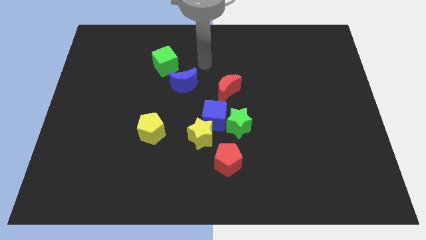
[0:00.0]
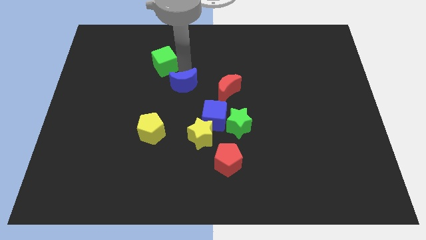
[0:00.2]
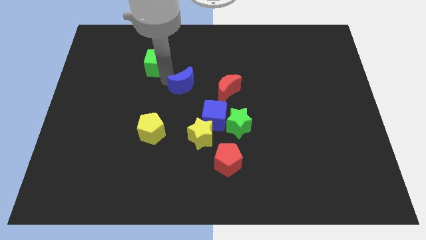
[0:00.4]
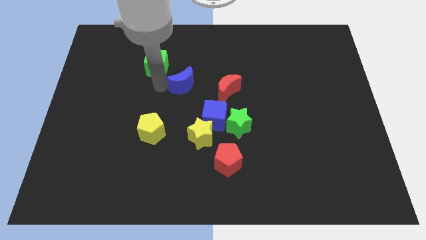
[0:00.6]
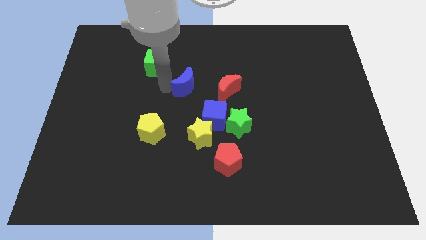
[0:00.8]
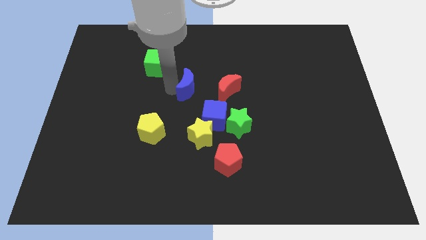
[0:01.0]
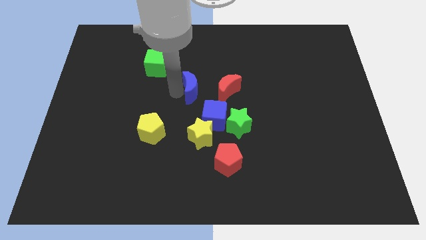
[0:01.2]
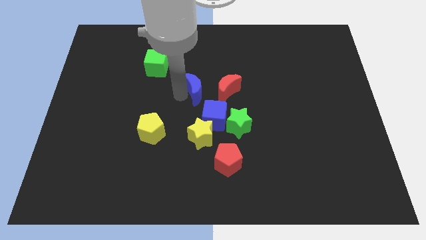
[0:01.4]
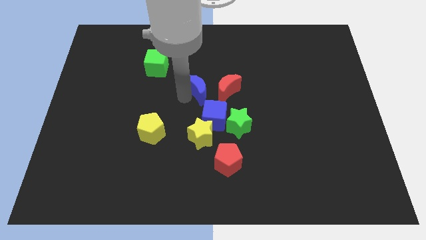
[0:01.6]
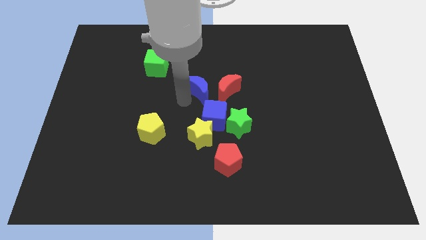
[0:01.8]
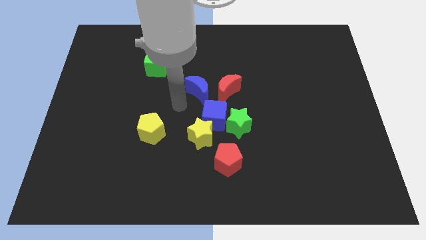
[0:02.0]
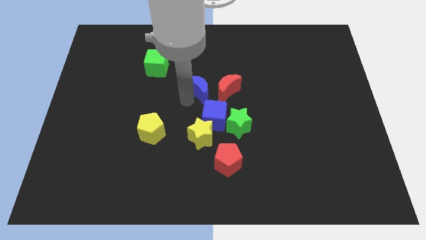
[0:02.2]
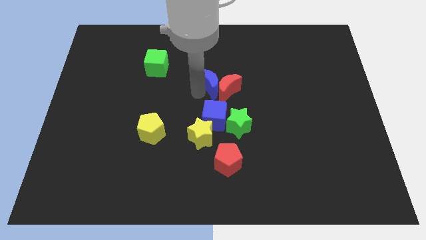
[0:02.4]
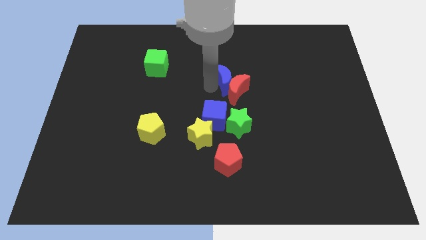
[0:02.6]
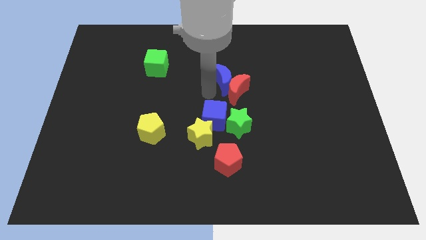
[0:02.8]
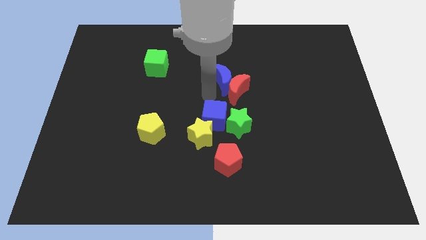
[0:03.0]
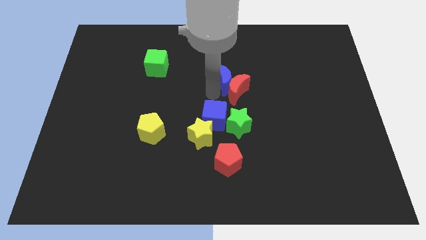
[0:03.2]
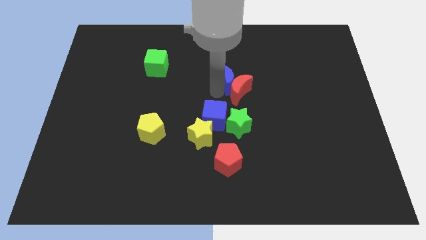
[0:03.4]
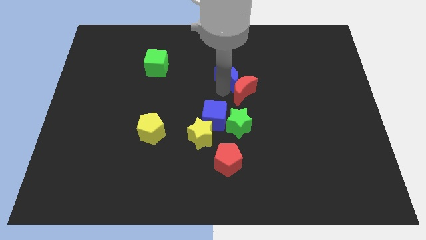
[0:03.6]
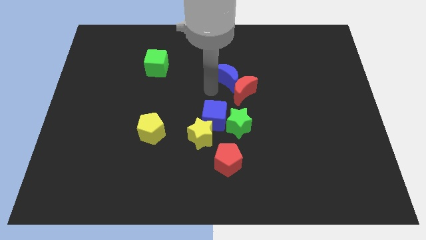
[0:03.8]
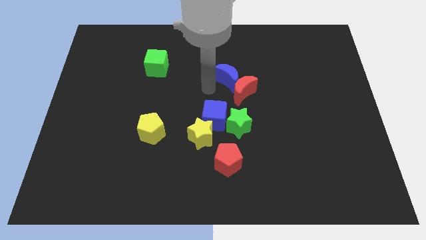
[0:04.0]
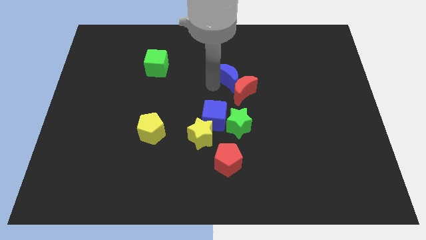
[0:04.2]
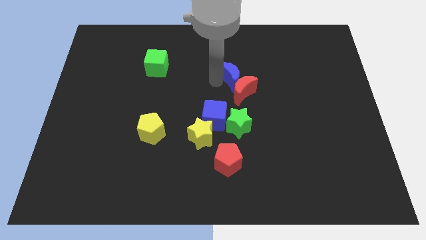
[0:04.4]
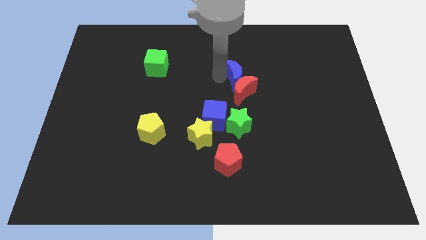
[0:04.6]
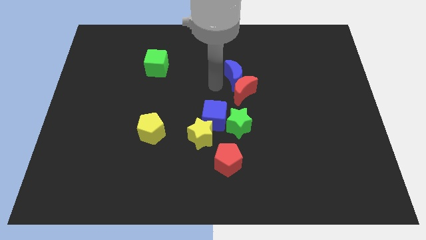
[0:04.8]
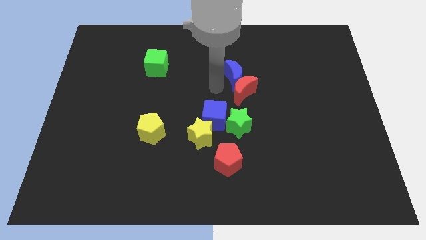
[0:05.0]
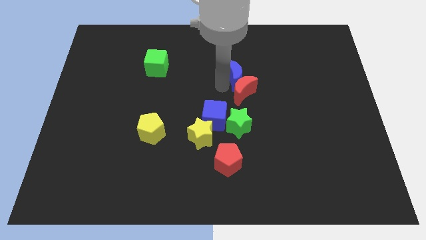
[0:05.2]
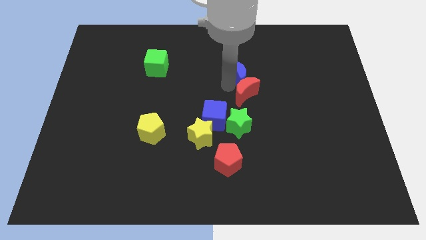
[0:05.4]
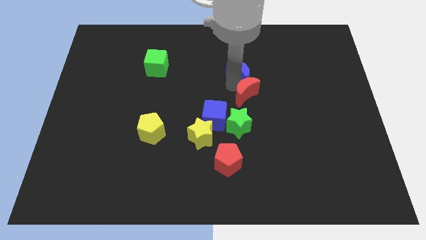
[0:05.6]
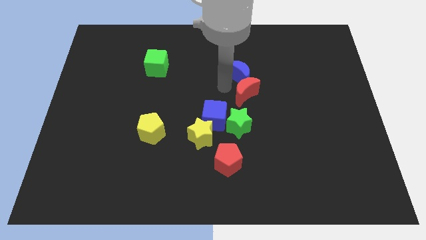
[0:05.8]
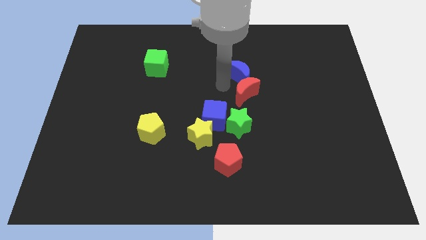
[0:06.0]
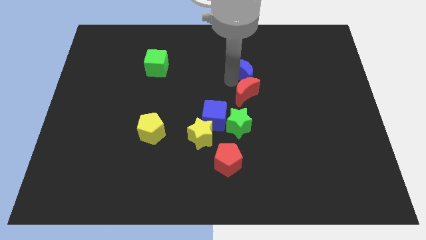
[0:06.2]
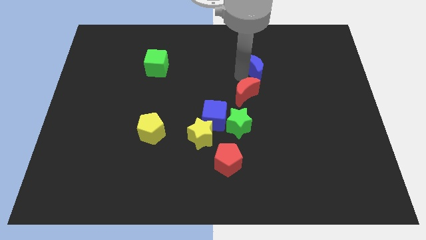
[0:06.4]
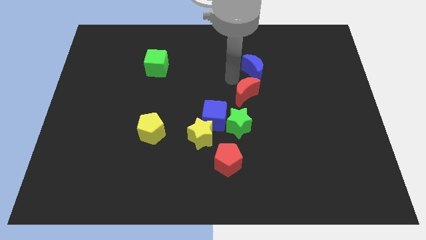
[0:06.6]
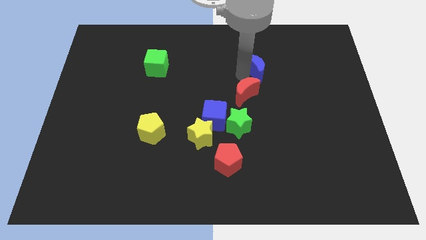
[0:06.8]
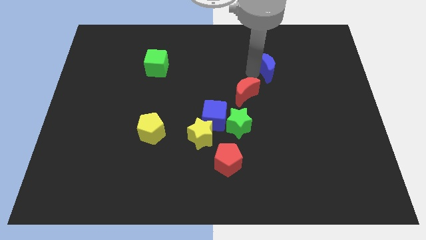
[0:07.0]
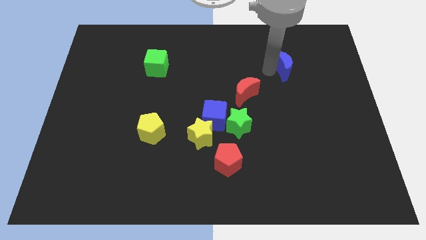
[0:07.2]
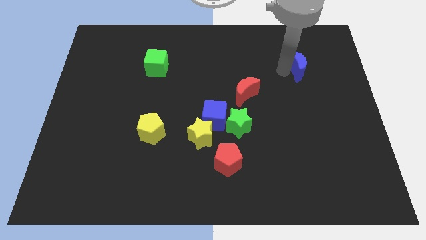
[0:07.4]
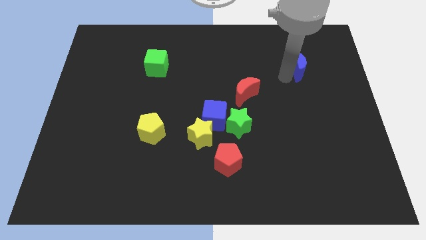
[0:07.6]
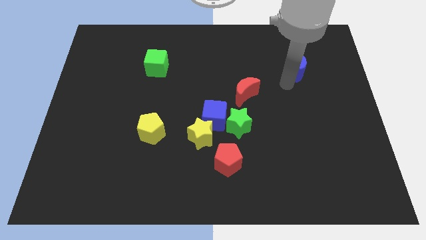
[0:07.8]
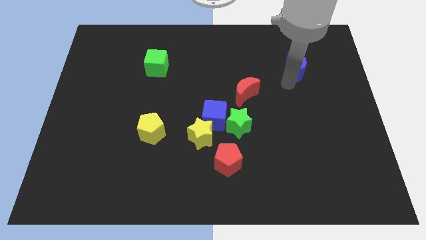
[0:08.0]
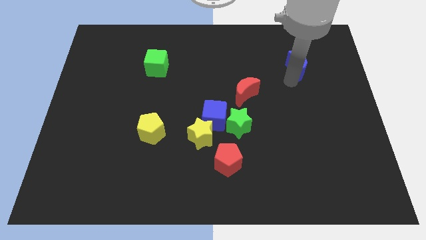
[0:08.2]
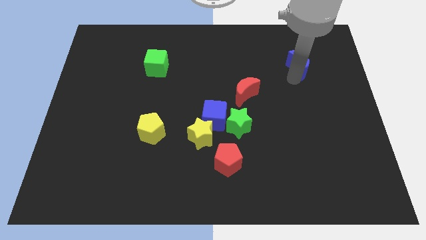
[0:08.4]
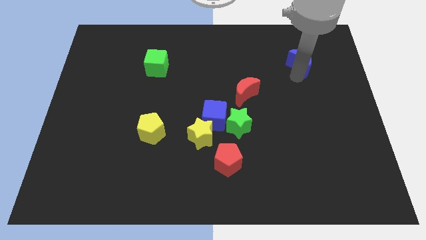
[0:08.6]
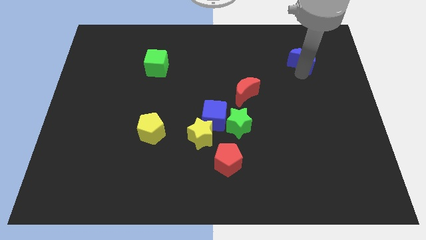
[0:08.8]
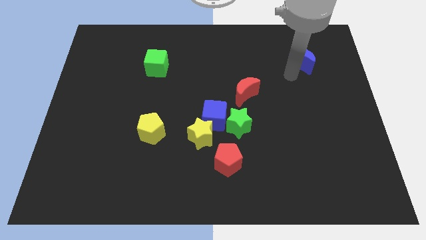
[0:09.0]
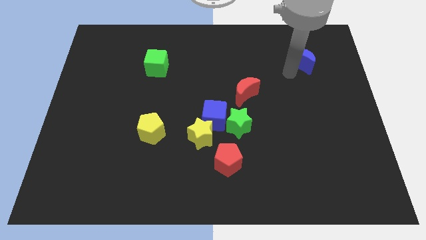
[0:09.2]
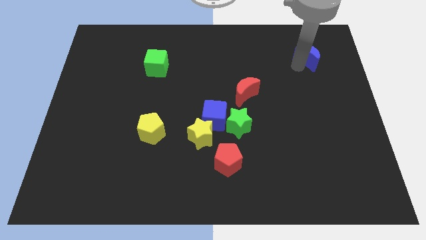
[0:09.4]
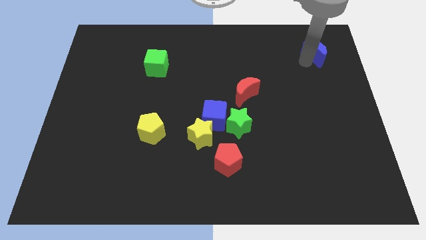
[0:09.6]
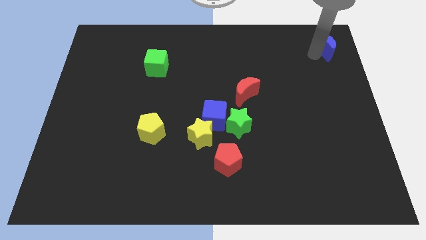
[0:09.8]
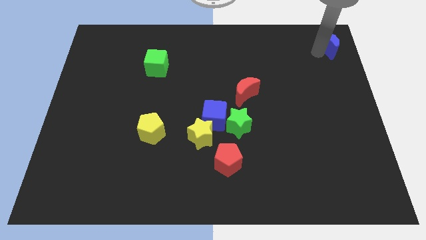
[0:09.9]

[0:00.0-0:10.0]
move the blue moon to the top right

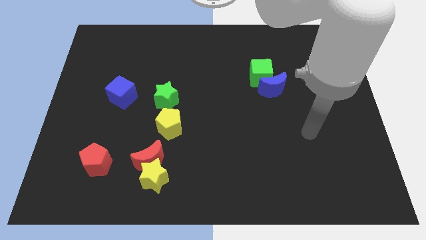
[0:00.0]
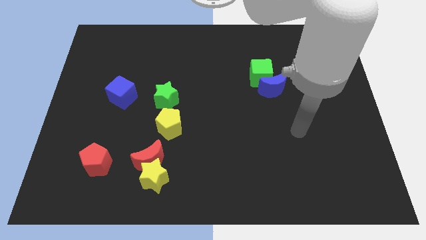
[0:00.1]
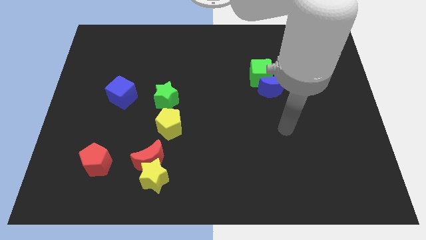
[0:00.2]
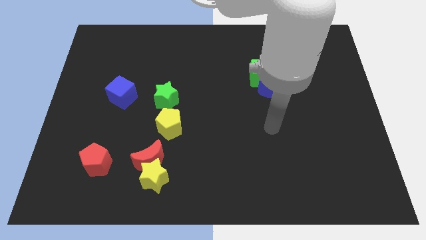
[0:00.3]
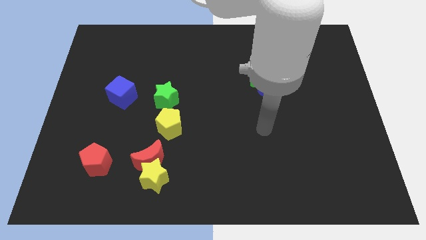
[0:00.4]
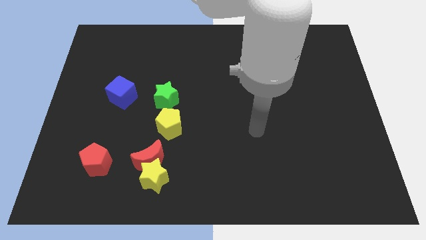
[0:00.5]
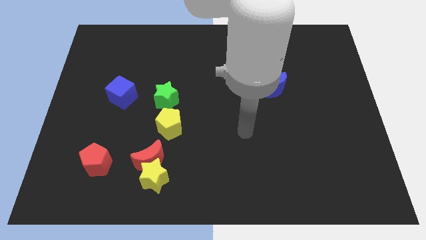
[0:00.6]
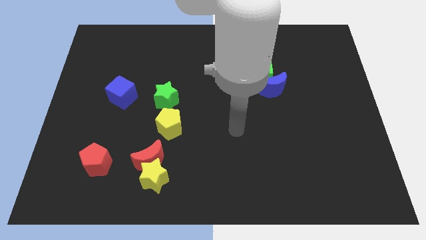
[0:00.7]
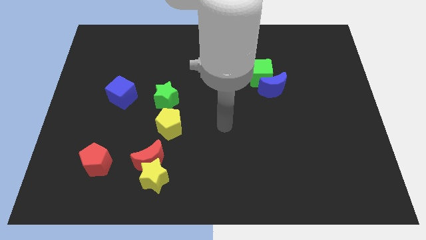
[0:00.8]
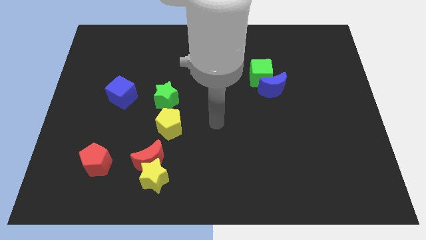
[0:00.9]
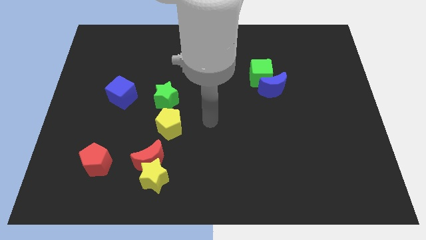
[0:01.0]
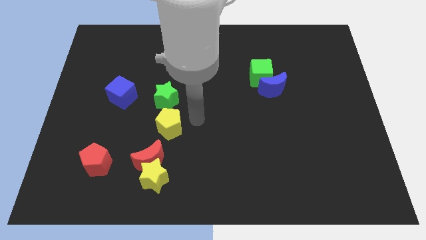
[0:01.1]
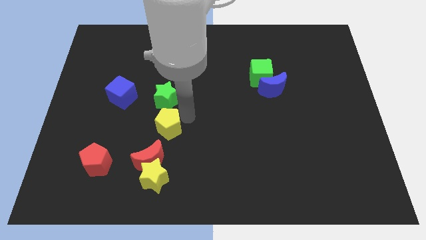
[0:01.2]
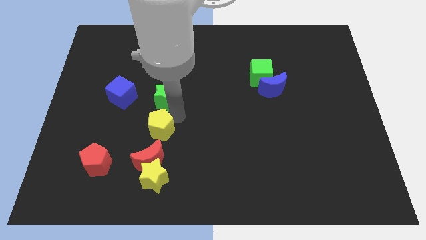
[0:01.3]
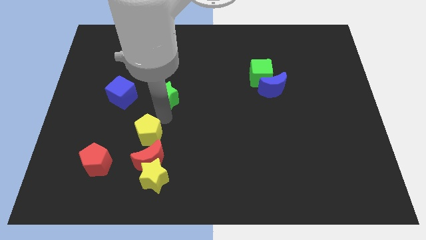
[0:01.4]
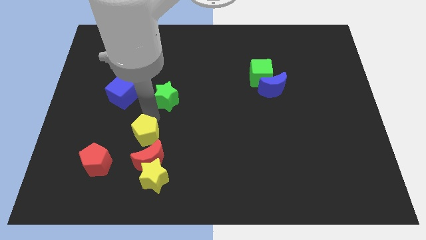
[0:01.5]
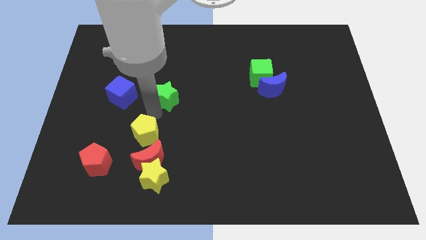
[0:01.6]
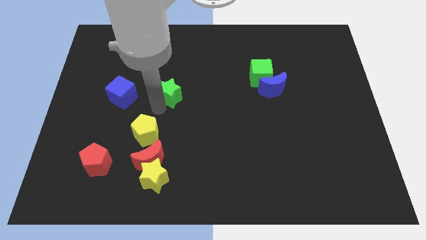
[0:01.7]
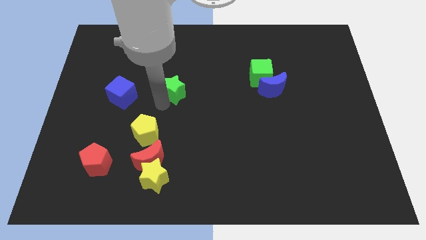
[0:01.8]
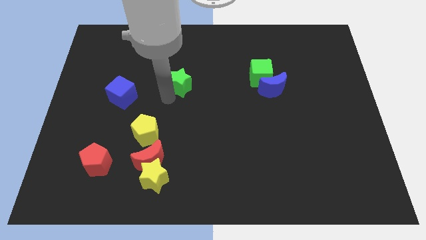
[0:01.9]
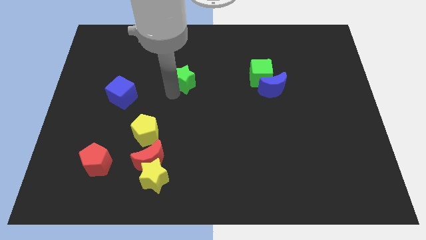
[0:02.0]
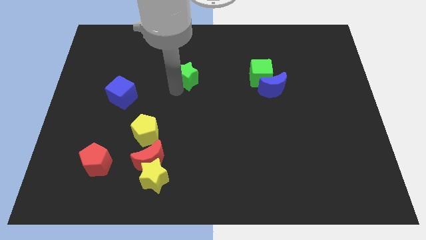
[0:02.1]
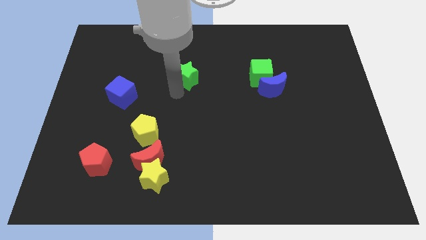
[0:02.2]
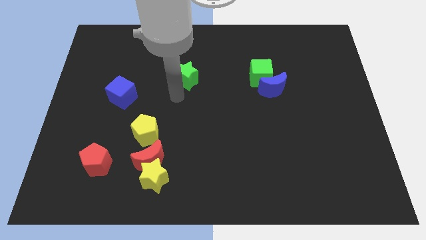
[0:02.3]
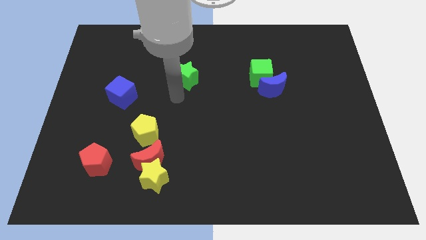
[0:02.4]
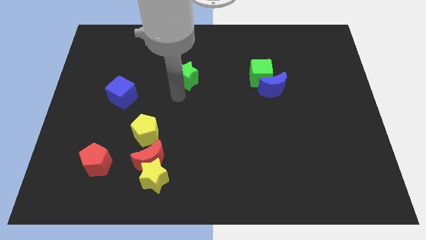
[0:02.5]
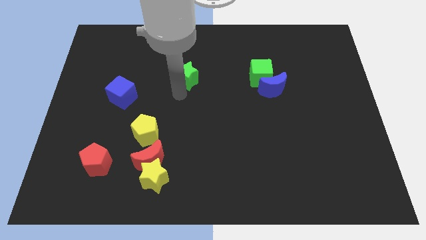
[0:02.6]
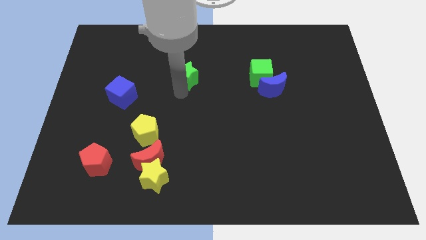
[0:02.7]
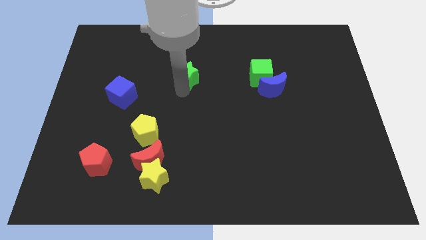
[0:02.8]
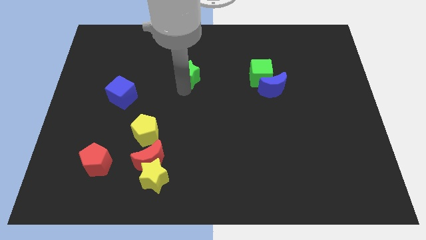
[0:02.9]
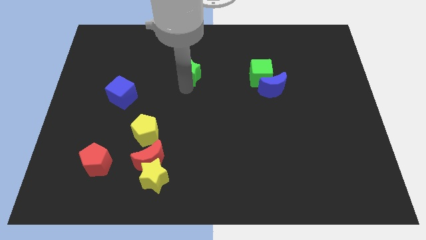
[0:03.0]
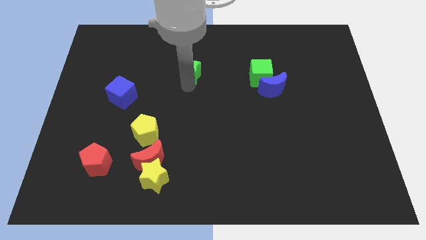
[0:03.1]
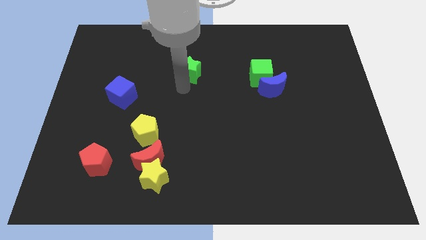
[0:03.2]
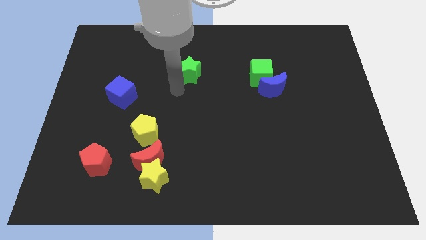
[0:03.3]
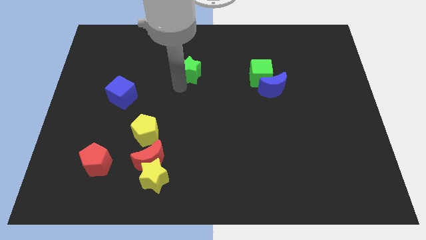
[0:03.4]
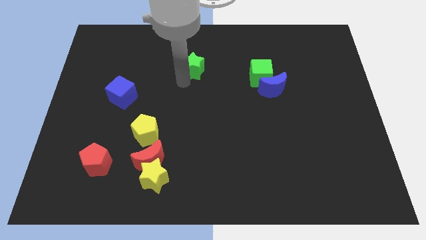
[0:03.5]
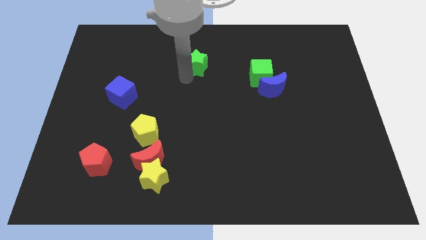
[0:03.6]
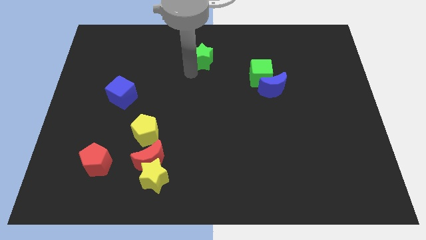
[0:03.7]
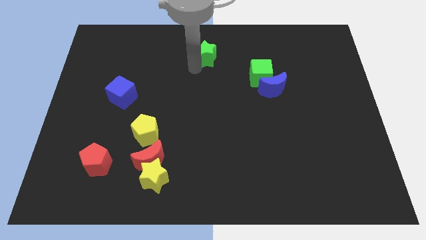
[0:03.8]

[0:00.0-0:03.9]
move the green star to the top side
